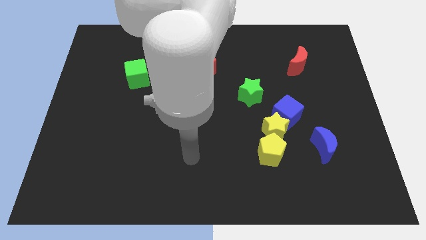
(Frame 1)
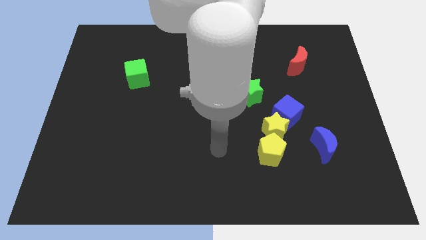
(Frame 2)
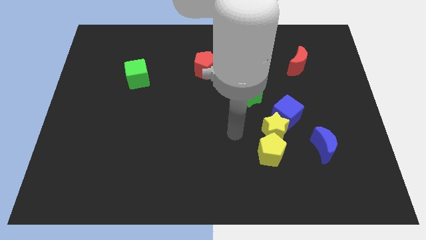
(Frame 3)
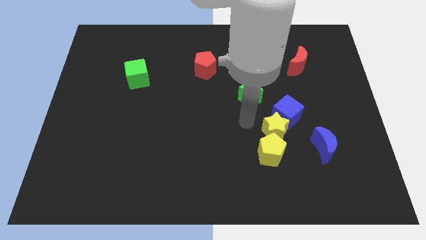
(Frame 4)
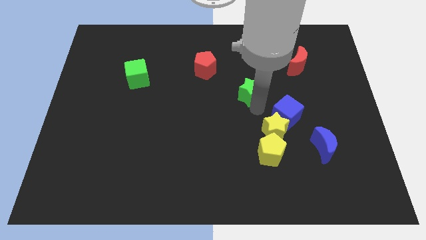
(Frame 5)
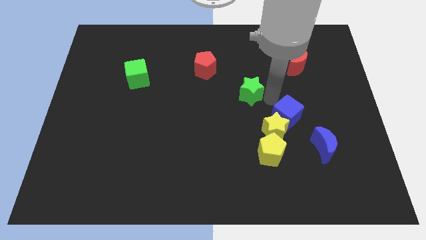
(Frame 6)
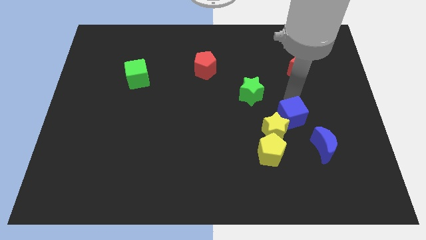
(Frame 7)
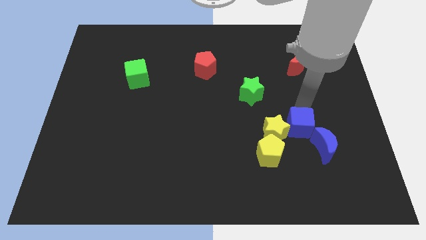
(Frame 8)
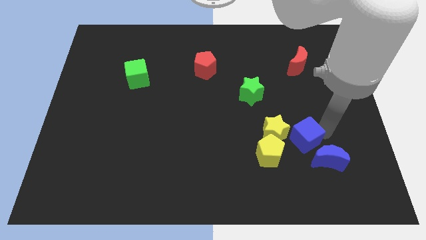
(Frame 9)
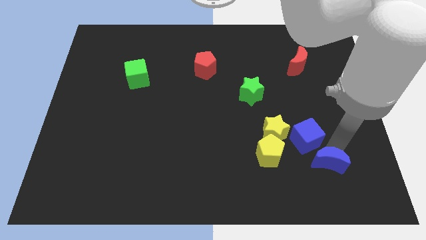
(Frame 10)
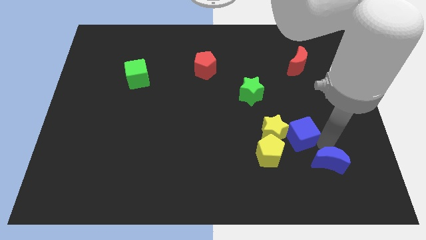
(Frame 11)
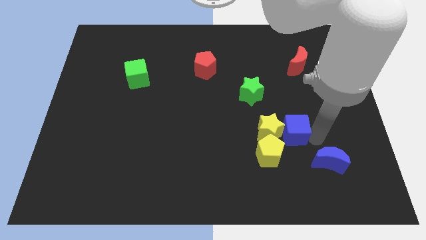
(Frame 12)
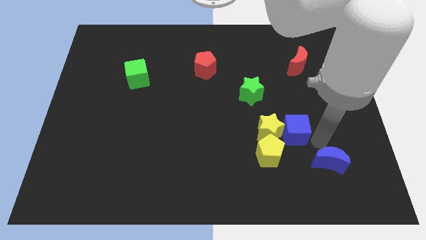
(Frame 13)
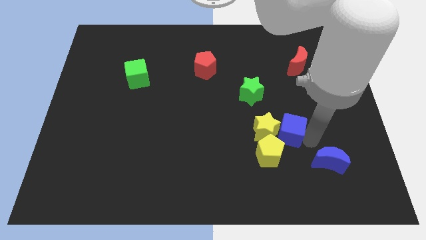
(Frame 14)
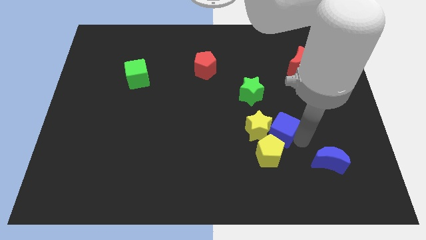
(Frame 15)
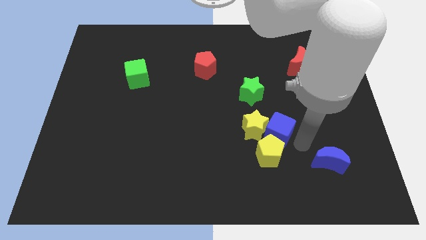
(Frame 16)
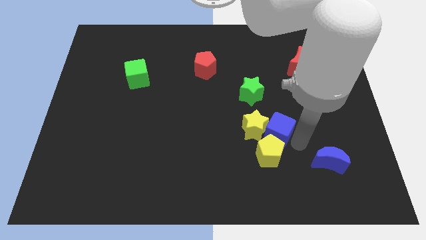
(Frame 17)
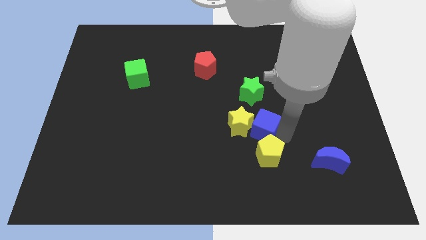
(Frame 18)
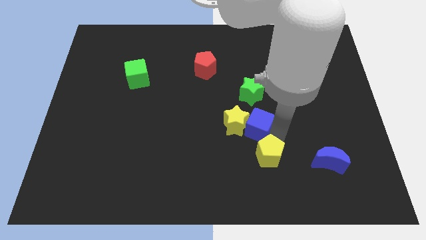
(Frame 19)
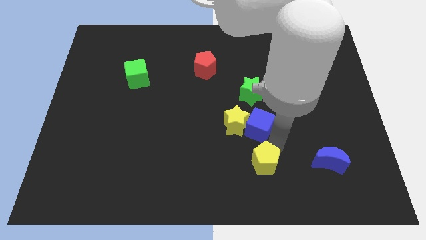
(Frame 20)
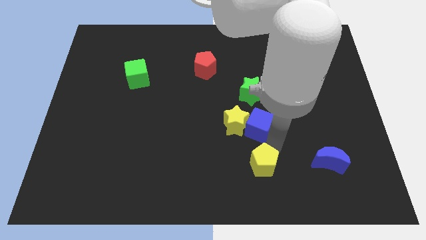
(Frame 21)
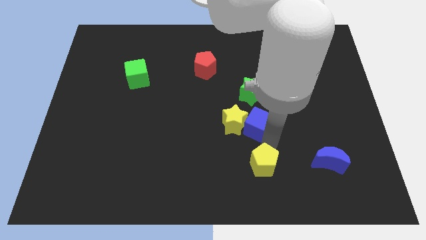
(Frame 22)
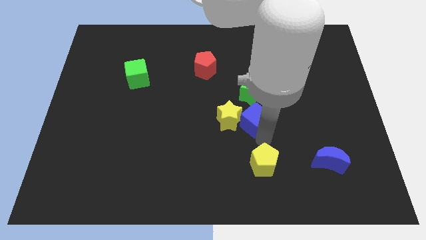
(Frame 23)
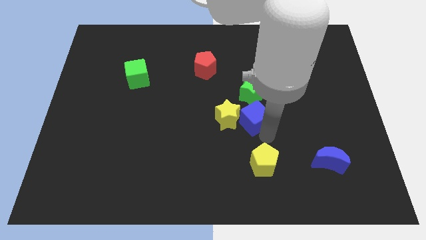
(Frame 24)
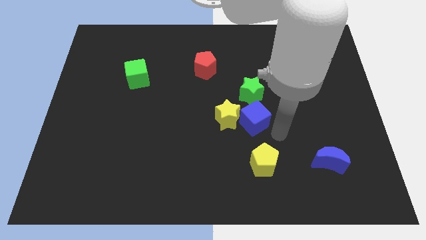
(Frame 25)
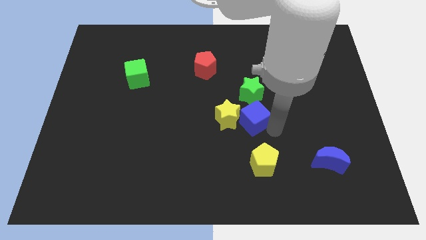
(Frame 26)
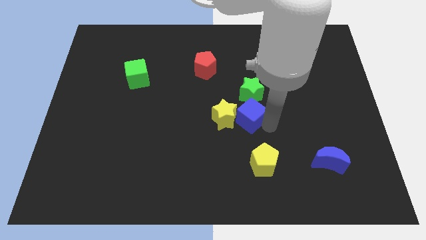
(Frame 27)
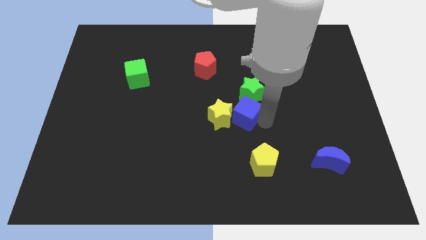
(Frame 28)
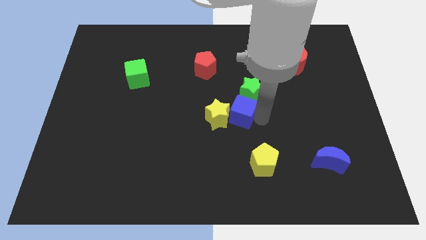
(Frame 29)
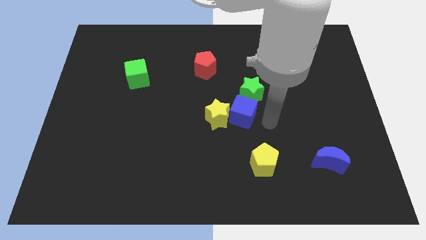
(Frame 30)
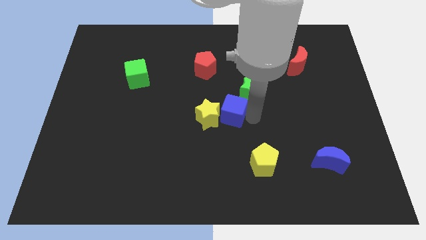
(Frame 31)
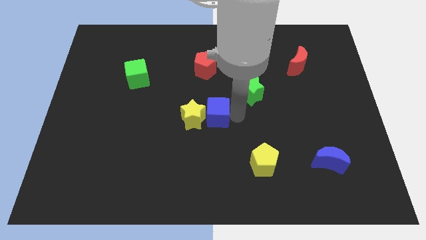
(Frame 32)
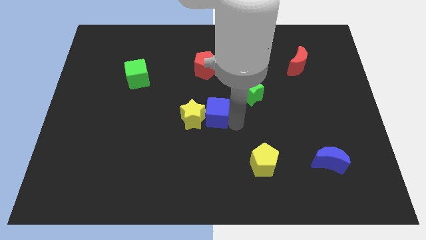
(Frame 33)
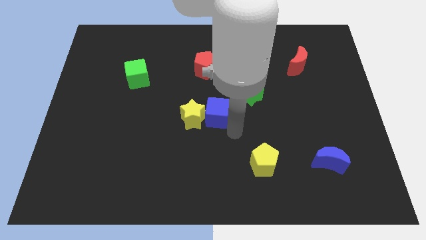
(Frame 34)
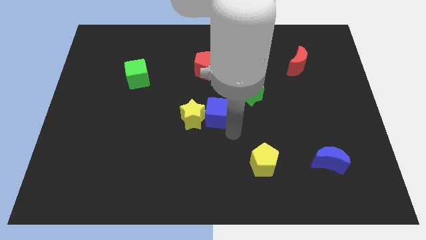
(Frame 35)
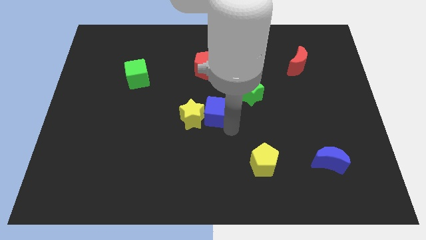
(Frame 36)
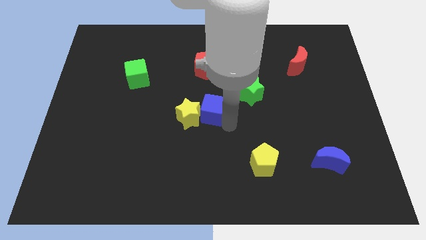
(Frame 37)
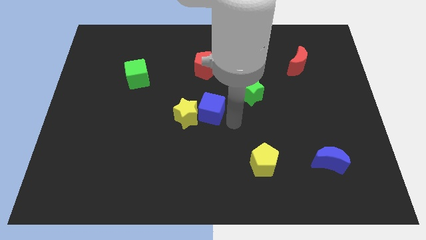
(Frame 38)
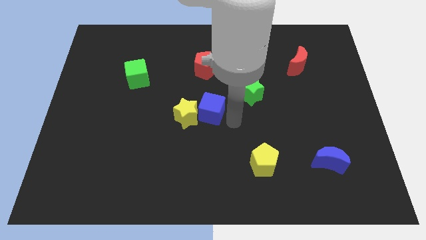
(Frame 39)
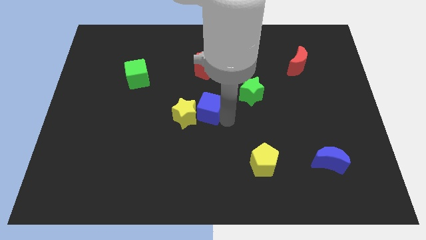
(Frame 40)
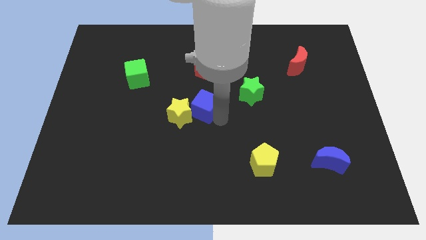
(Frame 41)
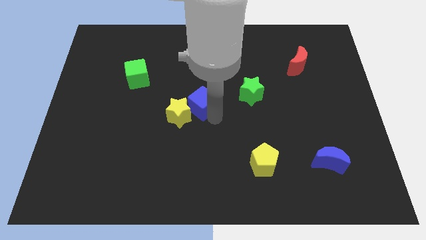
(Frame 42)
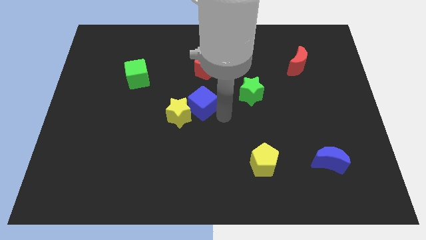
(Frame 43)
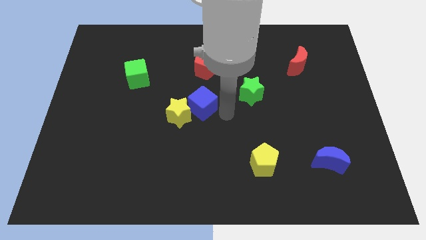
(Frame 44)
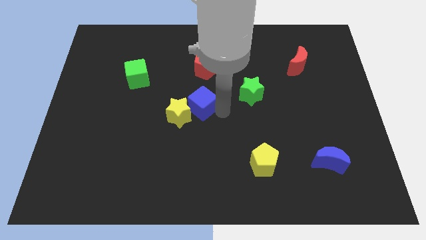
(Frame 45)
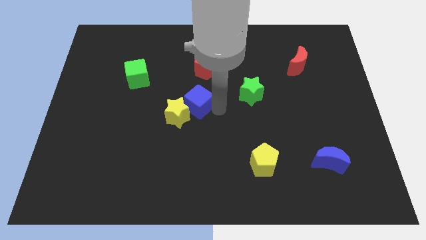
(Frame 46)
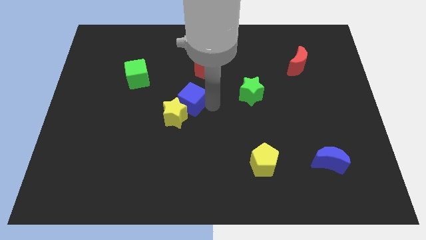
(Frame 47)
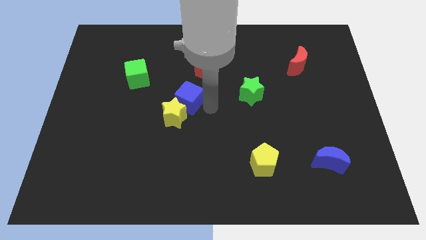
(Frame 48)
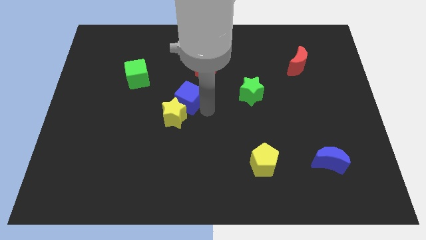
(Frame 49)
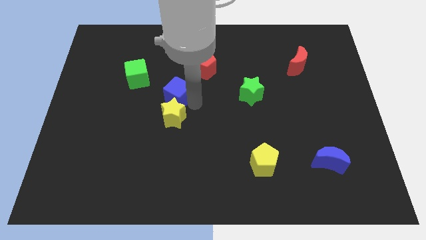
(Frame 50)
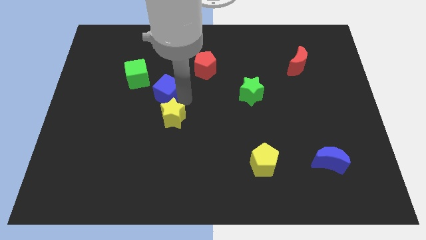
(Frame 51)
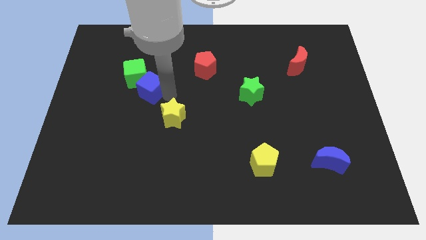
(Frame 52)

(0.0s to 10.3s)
push the blue cube to the green cube

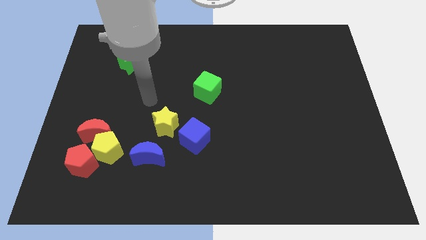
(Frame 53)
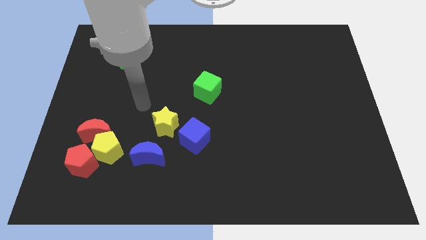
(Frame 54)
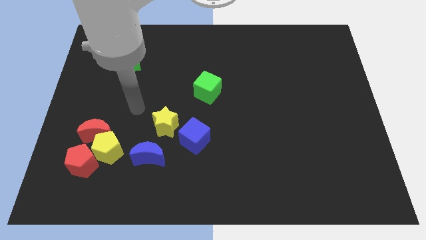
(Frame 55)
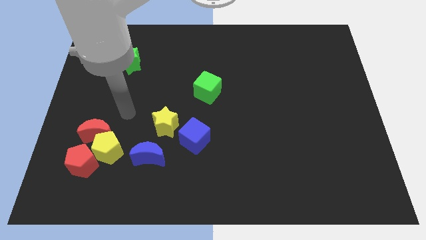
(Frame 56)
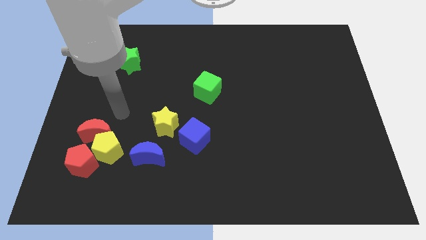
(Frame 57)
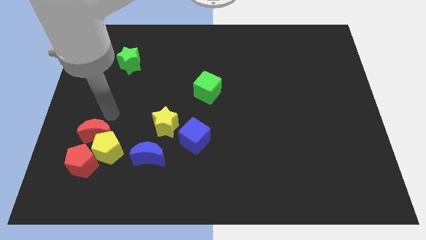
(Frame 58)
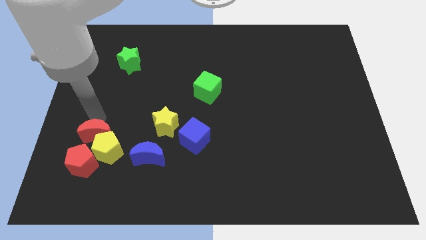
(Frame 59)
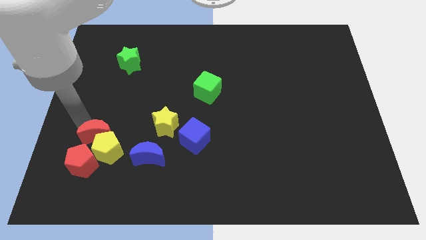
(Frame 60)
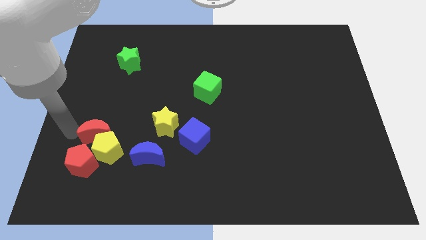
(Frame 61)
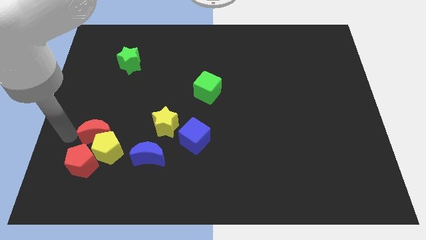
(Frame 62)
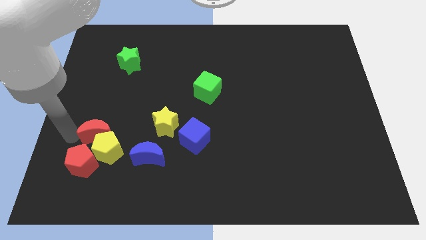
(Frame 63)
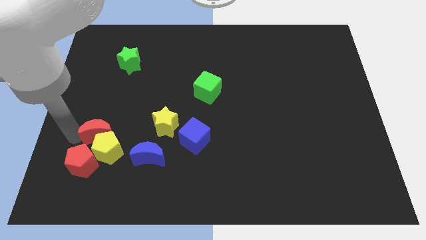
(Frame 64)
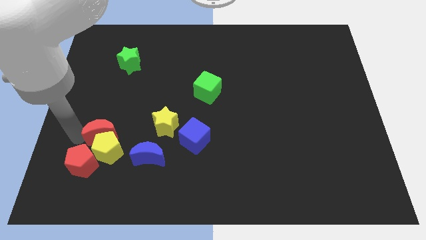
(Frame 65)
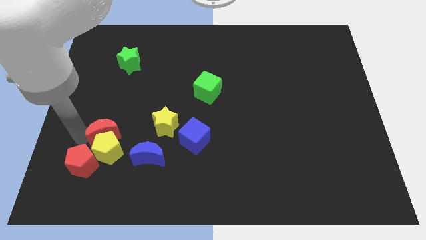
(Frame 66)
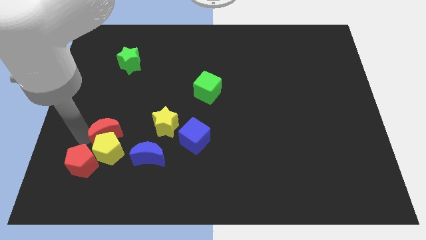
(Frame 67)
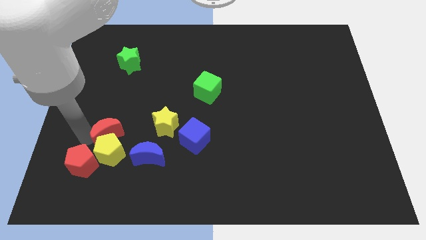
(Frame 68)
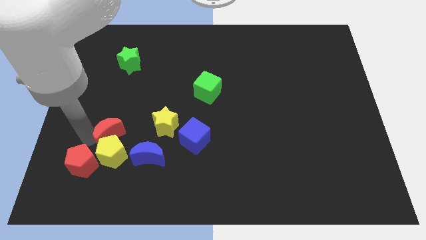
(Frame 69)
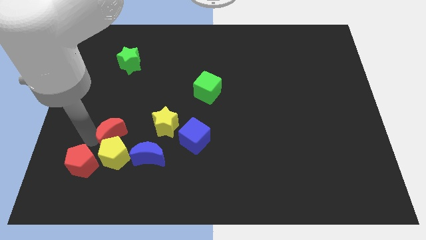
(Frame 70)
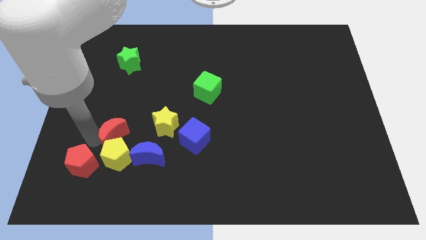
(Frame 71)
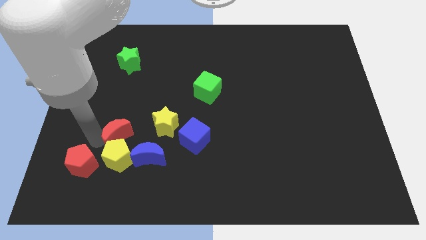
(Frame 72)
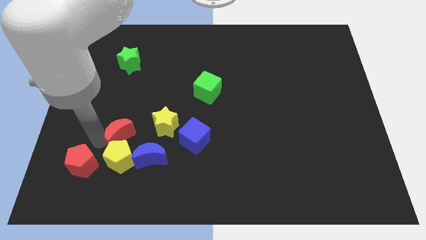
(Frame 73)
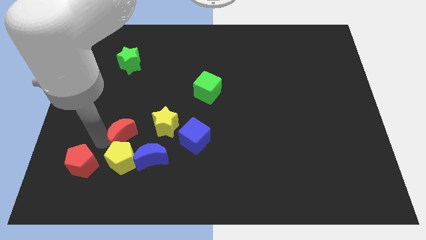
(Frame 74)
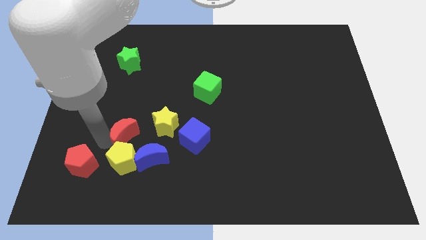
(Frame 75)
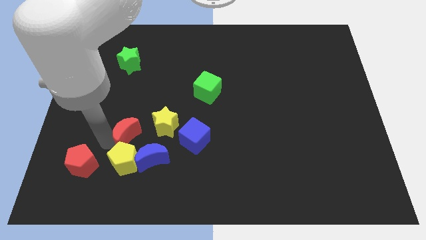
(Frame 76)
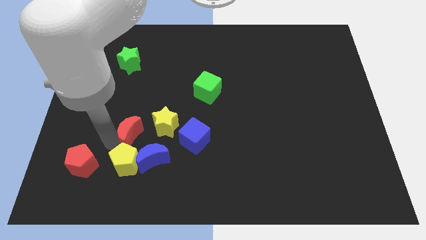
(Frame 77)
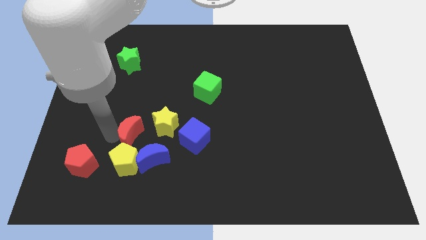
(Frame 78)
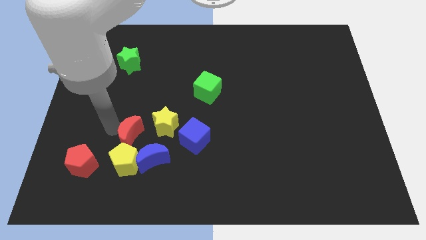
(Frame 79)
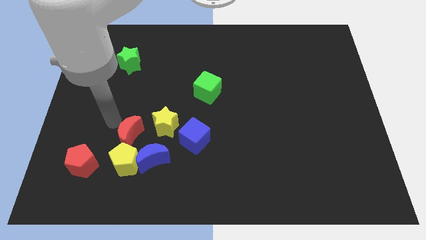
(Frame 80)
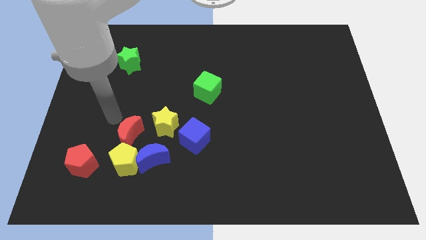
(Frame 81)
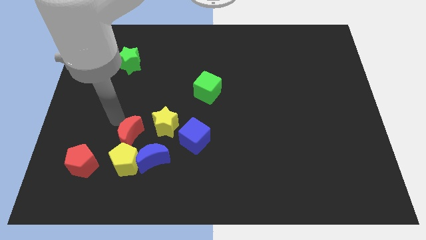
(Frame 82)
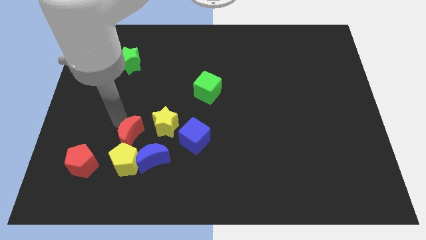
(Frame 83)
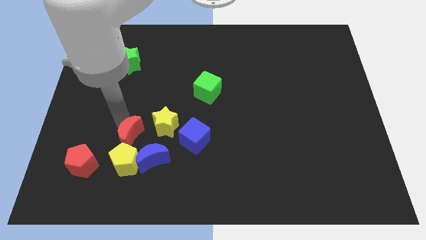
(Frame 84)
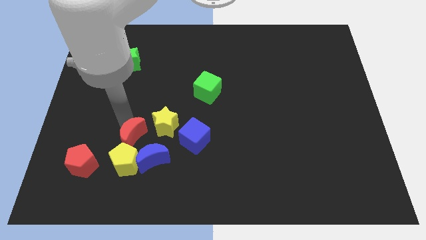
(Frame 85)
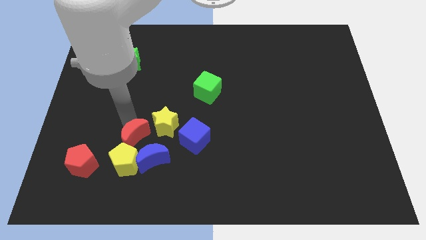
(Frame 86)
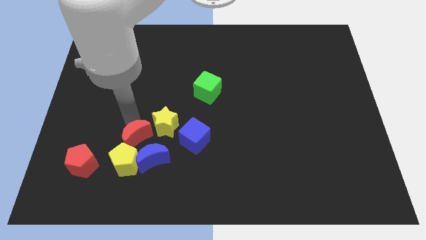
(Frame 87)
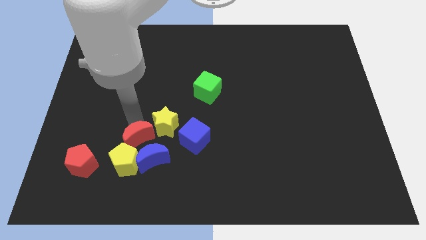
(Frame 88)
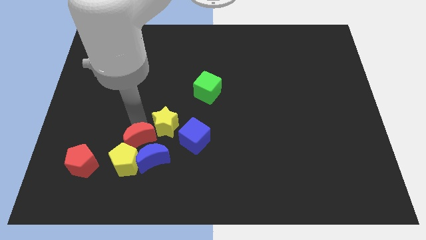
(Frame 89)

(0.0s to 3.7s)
slide the red moon towards the blue moon
